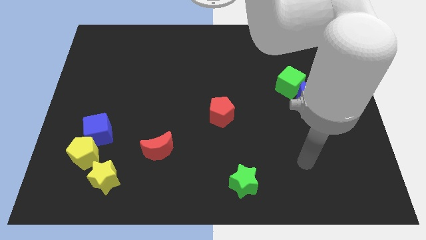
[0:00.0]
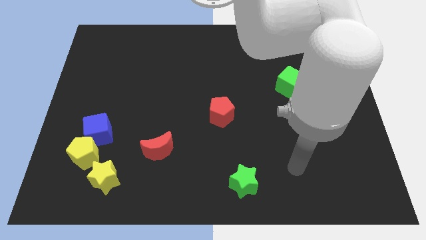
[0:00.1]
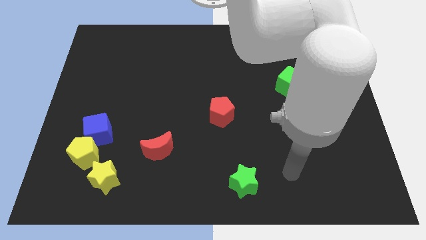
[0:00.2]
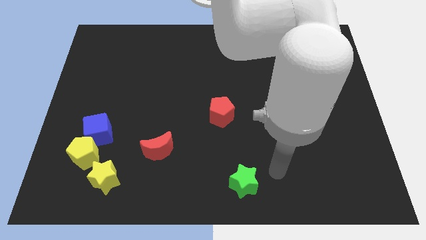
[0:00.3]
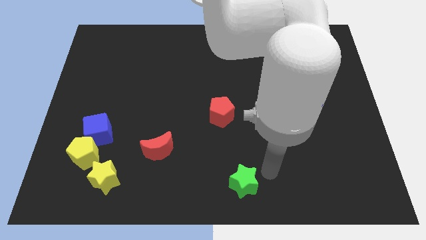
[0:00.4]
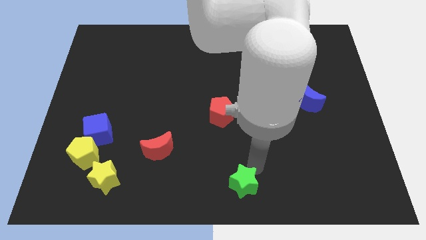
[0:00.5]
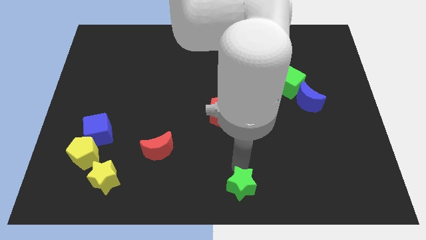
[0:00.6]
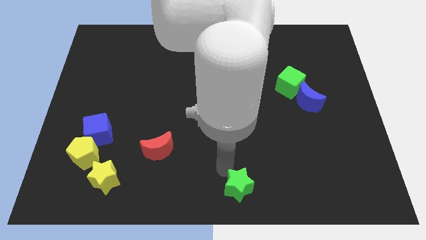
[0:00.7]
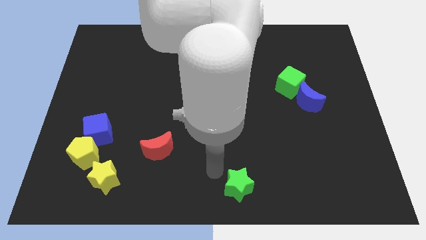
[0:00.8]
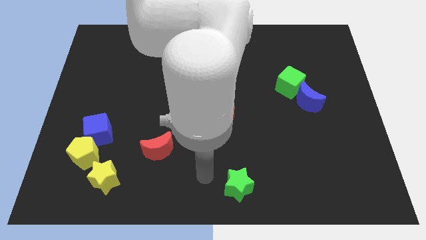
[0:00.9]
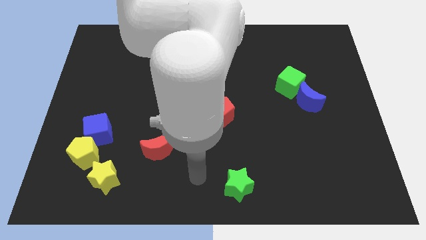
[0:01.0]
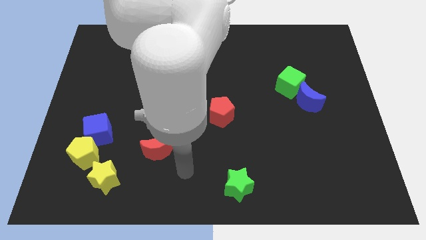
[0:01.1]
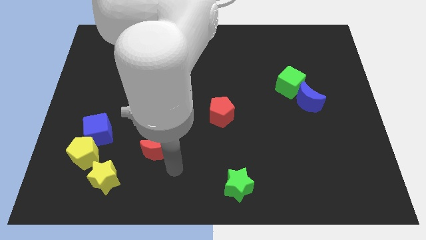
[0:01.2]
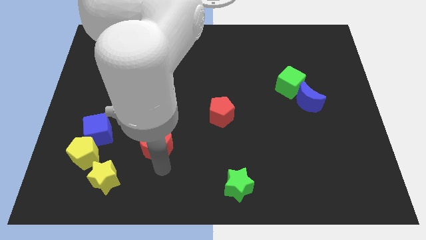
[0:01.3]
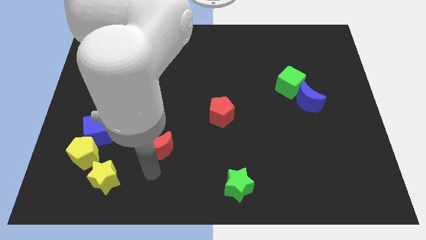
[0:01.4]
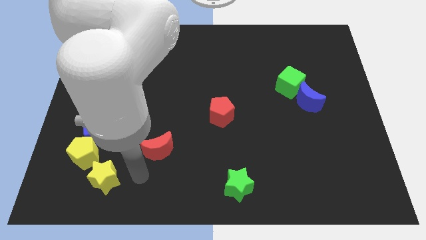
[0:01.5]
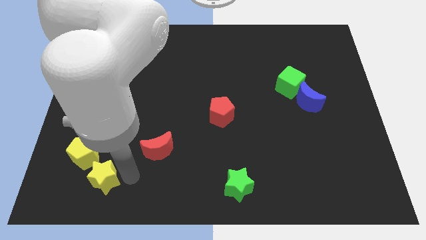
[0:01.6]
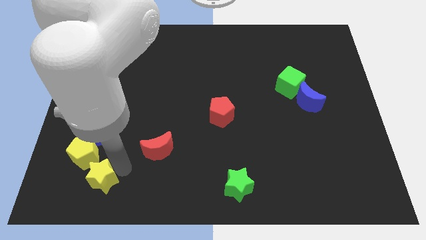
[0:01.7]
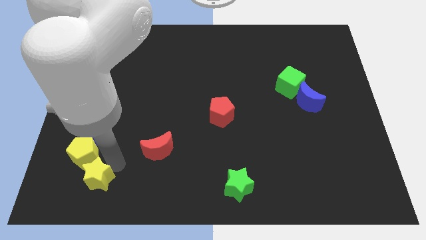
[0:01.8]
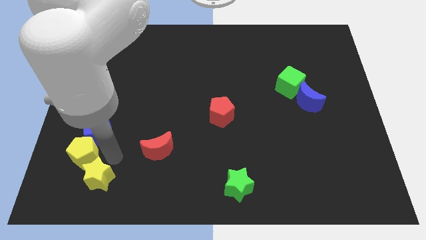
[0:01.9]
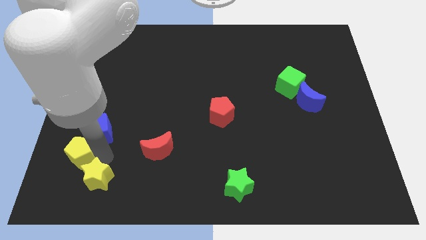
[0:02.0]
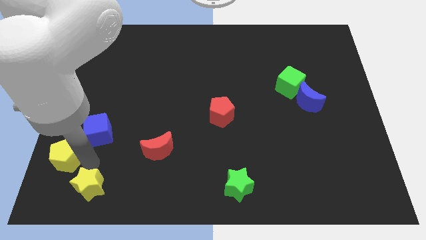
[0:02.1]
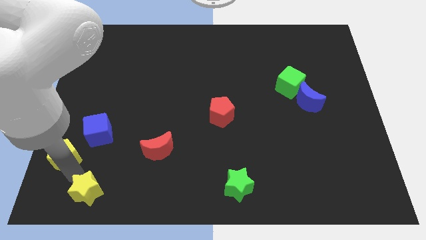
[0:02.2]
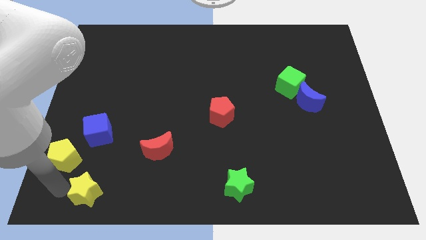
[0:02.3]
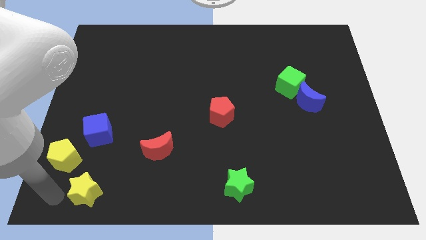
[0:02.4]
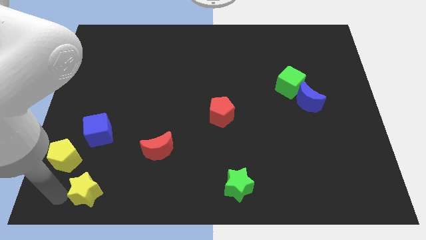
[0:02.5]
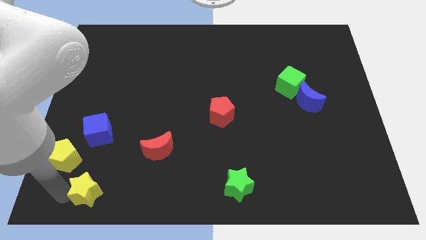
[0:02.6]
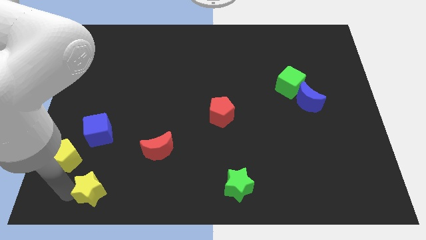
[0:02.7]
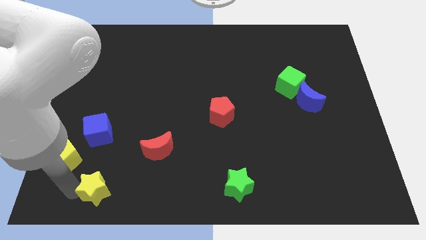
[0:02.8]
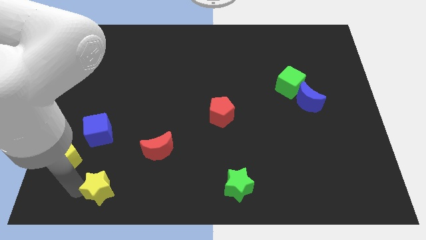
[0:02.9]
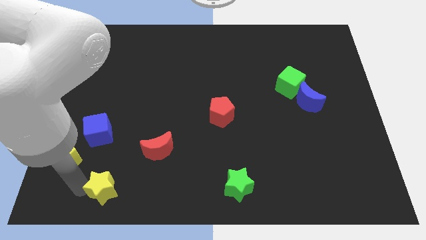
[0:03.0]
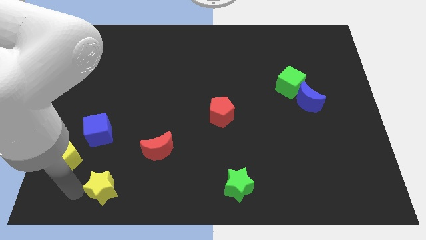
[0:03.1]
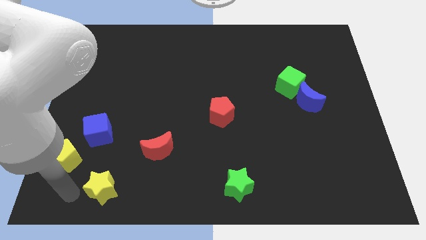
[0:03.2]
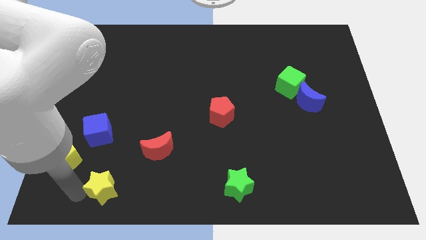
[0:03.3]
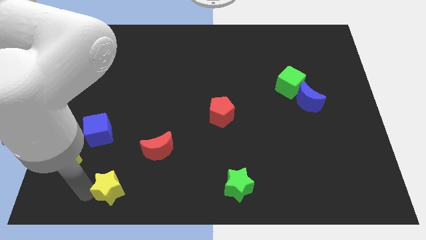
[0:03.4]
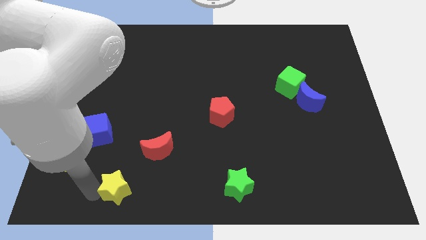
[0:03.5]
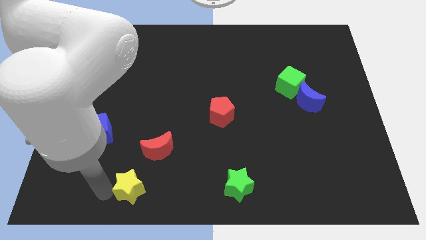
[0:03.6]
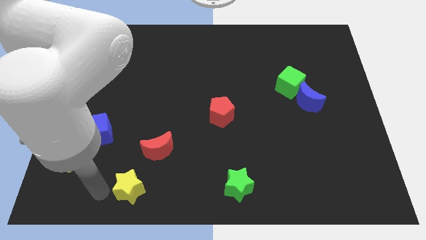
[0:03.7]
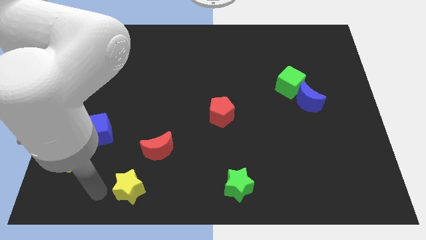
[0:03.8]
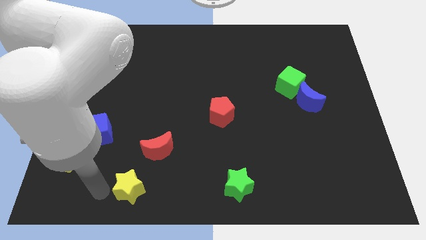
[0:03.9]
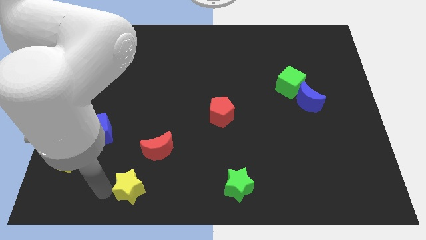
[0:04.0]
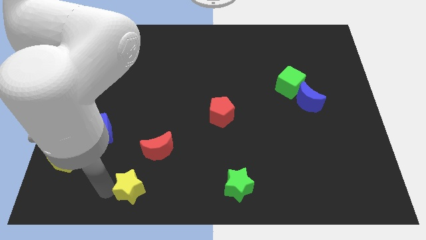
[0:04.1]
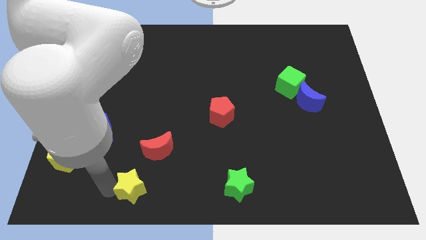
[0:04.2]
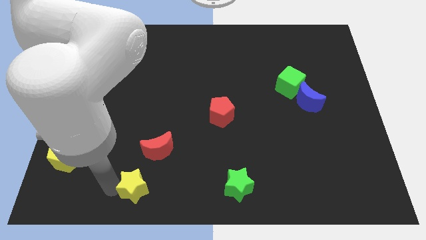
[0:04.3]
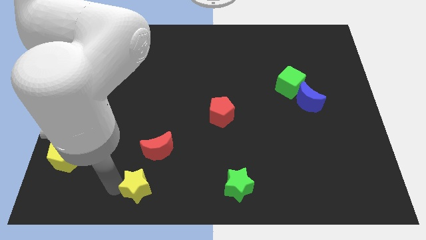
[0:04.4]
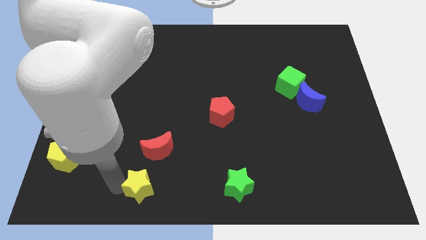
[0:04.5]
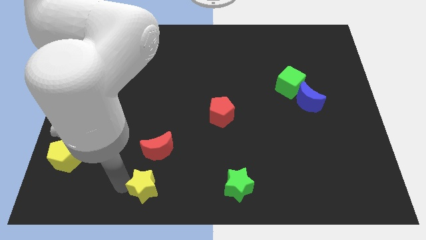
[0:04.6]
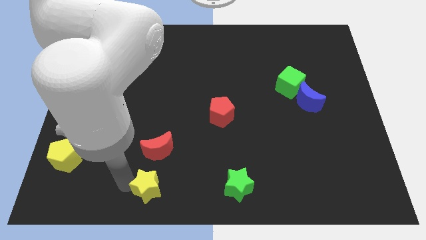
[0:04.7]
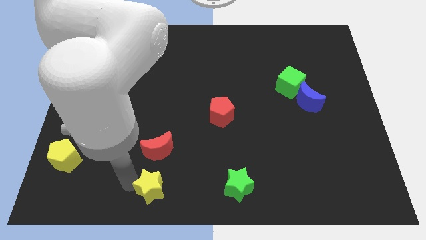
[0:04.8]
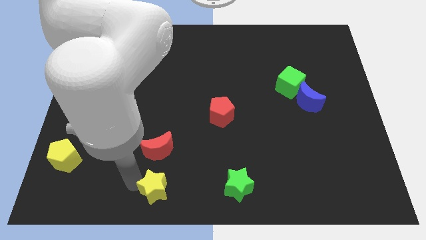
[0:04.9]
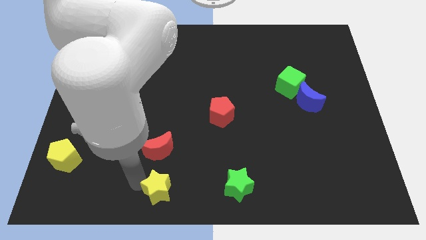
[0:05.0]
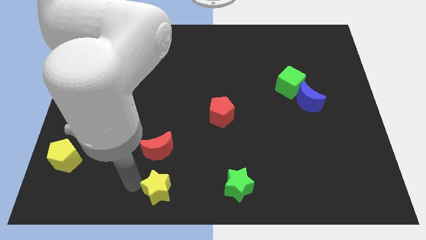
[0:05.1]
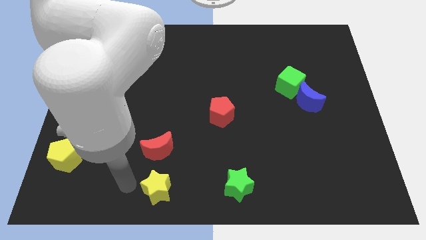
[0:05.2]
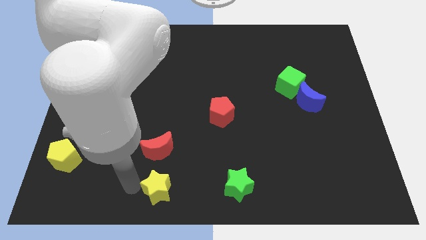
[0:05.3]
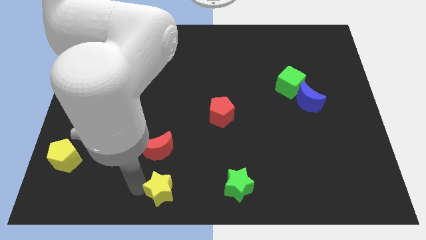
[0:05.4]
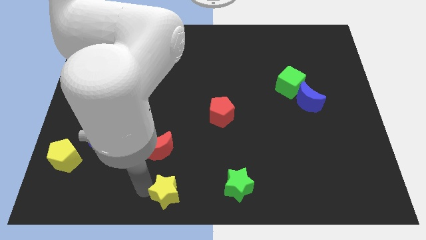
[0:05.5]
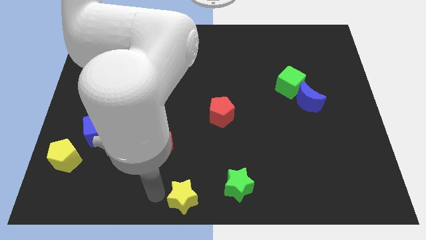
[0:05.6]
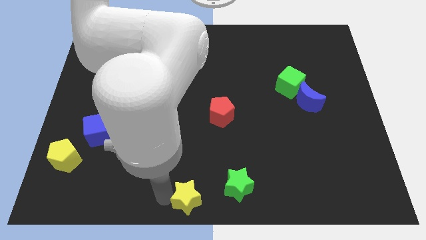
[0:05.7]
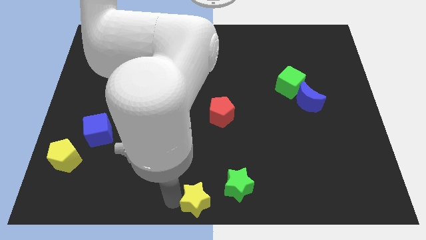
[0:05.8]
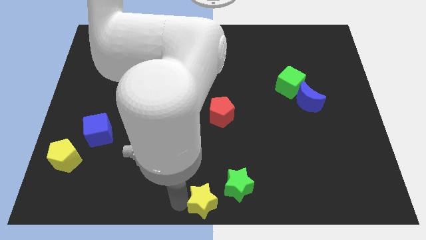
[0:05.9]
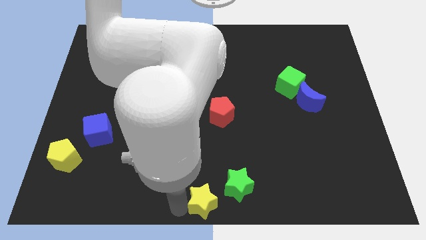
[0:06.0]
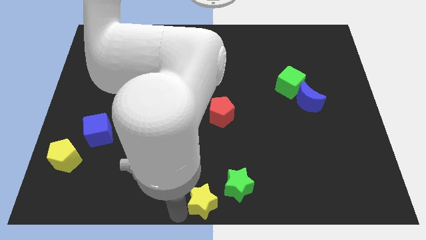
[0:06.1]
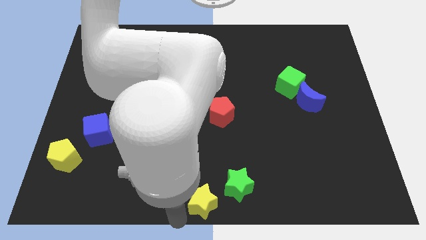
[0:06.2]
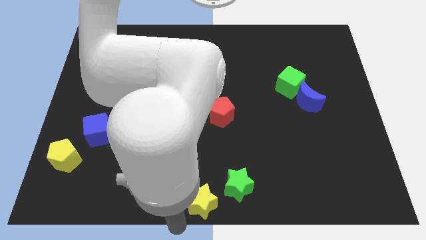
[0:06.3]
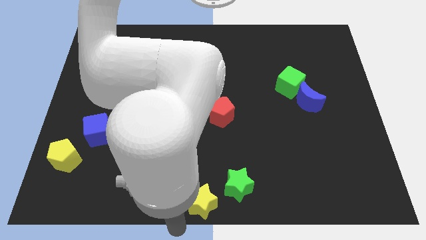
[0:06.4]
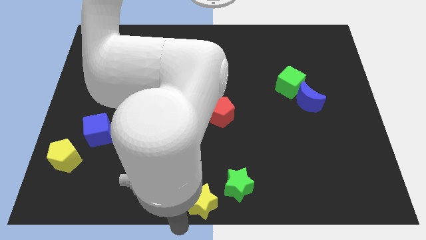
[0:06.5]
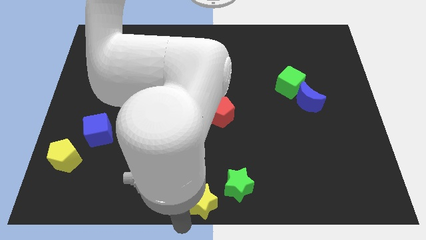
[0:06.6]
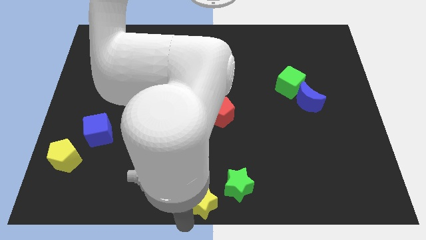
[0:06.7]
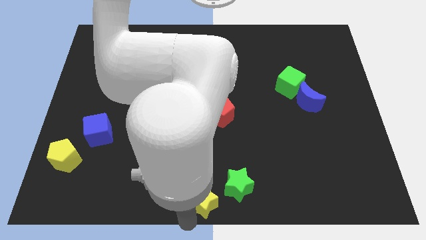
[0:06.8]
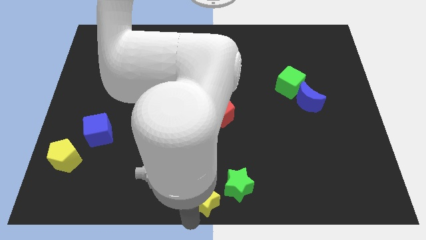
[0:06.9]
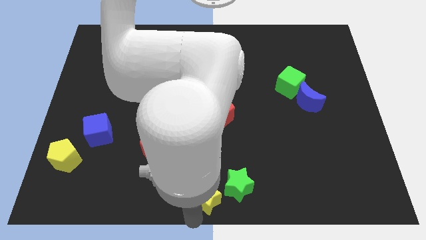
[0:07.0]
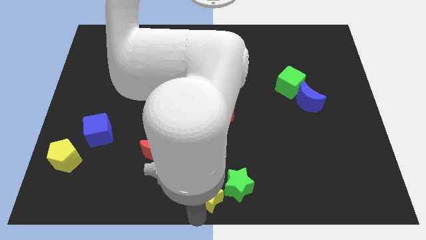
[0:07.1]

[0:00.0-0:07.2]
put the yellow star towards the green star

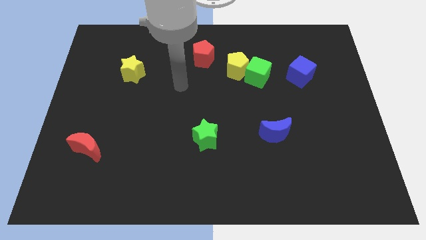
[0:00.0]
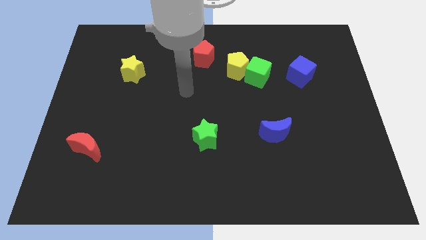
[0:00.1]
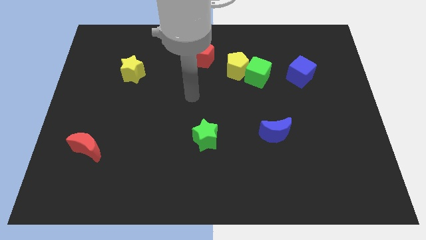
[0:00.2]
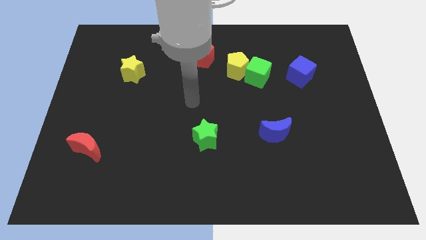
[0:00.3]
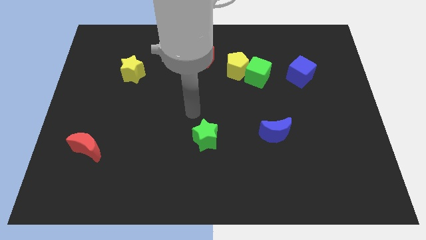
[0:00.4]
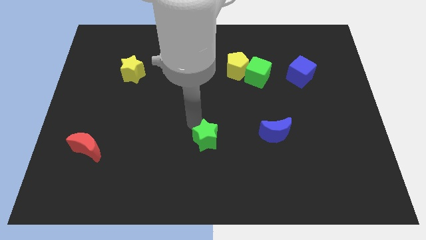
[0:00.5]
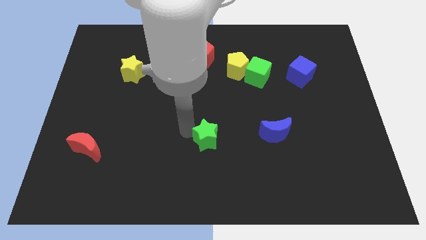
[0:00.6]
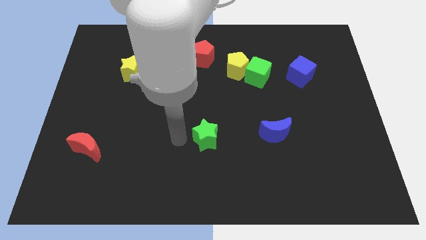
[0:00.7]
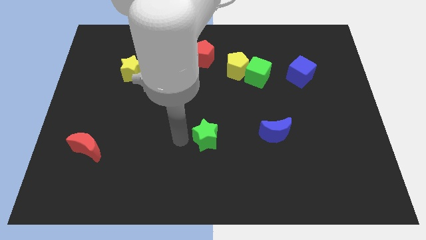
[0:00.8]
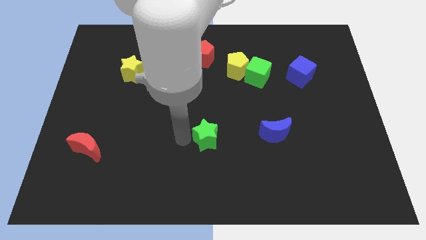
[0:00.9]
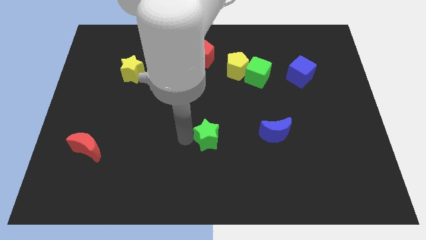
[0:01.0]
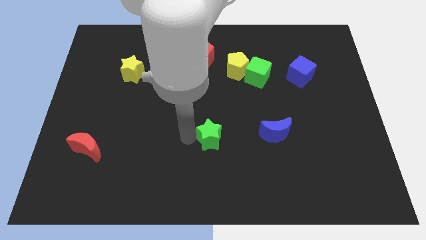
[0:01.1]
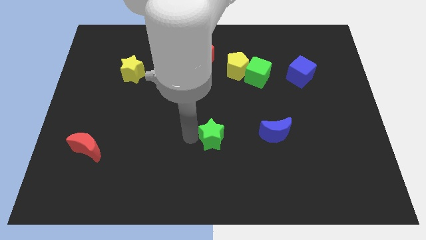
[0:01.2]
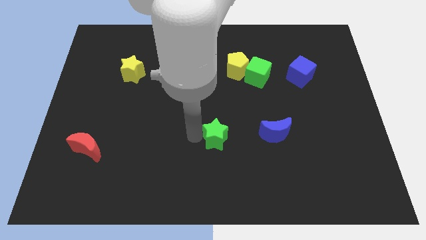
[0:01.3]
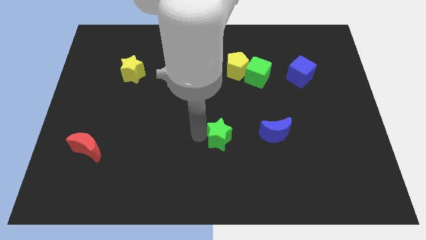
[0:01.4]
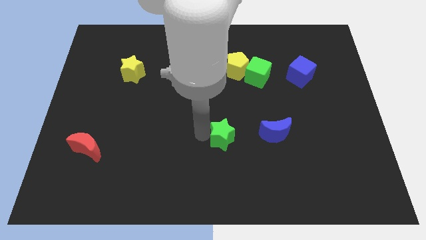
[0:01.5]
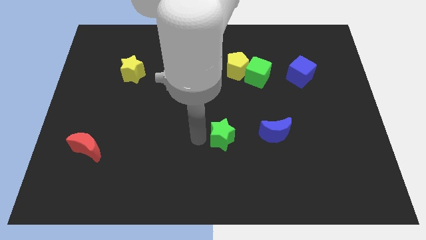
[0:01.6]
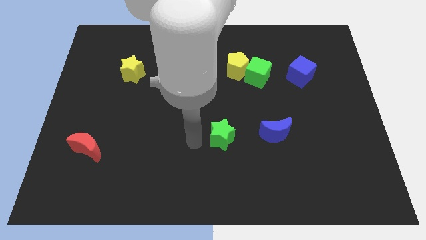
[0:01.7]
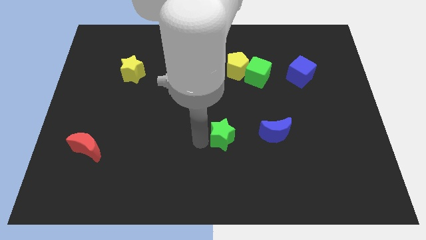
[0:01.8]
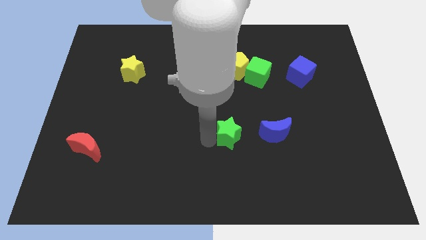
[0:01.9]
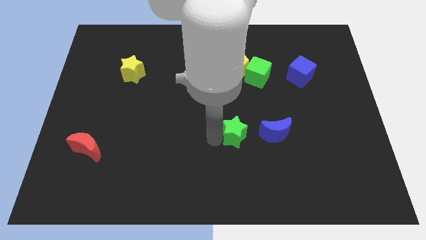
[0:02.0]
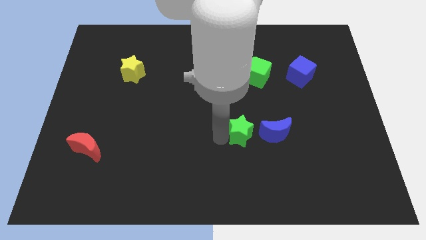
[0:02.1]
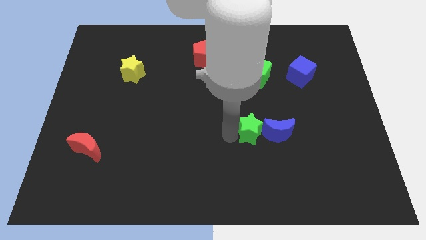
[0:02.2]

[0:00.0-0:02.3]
slide the green star to the blue moon
